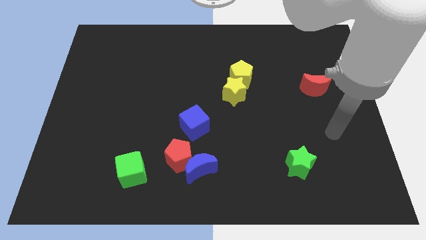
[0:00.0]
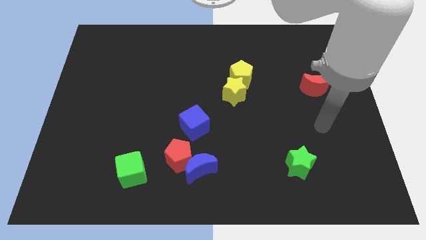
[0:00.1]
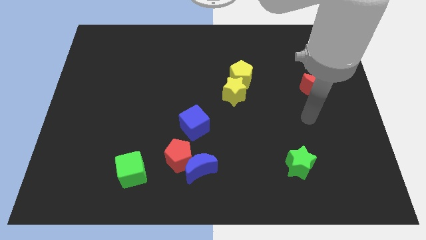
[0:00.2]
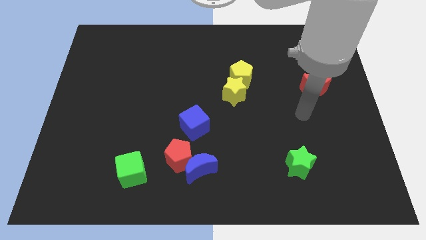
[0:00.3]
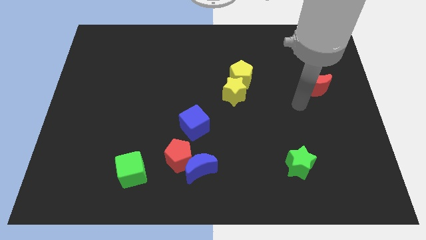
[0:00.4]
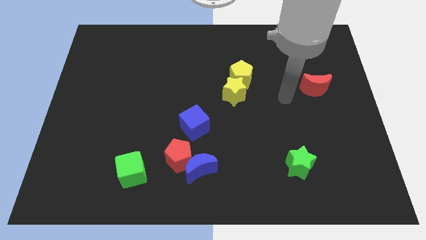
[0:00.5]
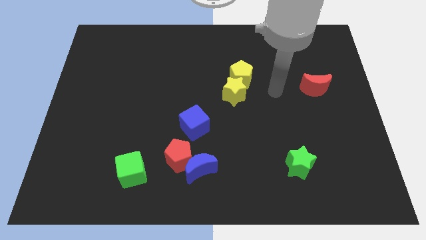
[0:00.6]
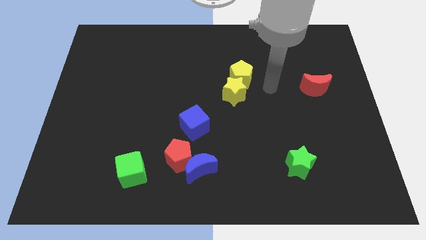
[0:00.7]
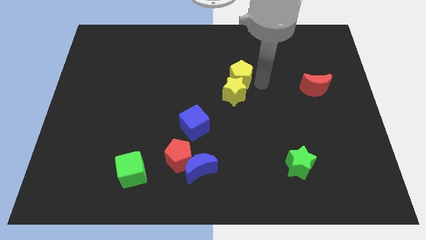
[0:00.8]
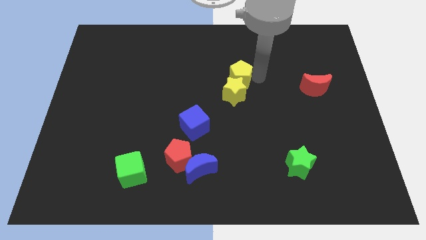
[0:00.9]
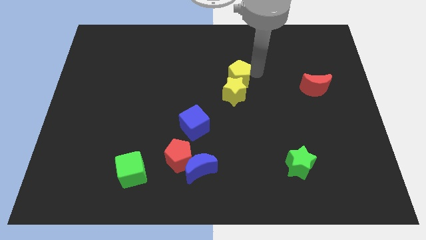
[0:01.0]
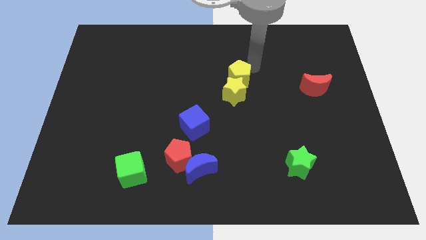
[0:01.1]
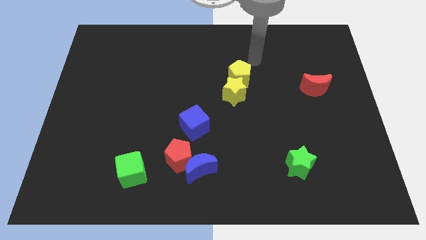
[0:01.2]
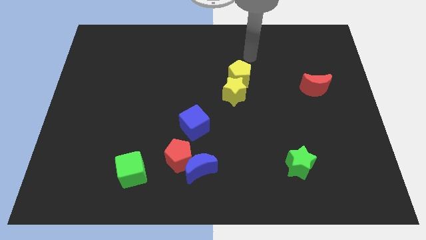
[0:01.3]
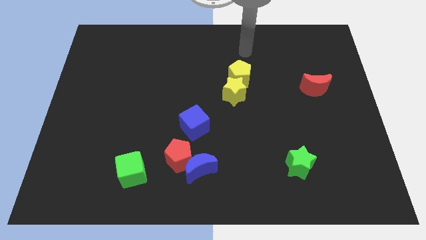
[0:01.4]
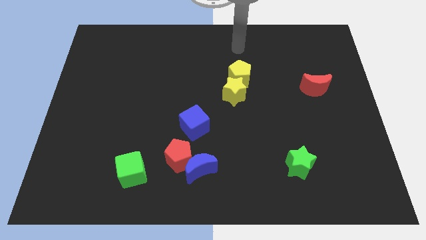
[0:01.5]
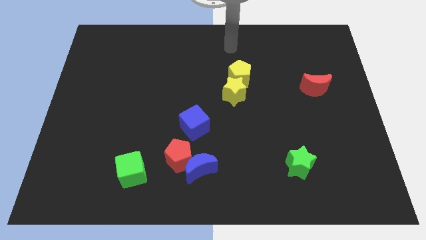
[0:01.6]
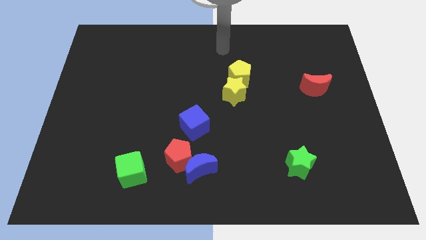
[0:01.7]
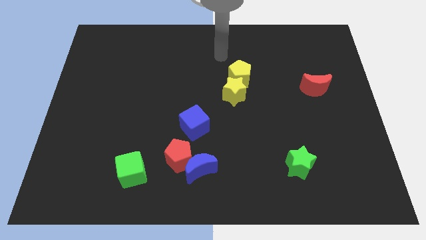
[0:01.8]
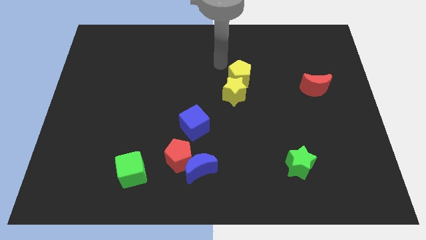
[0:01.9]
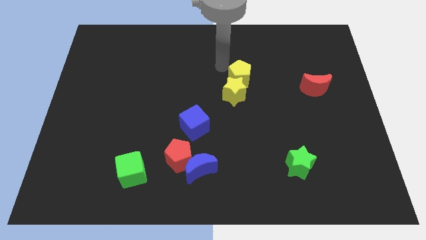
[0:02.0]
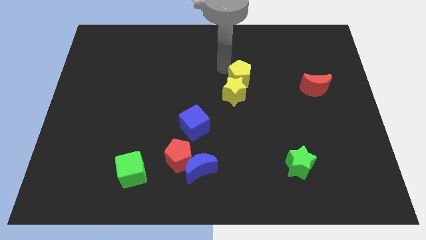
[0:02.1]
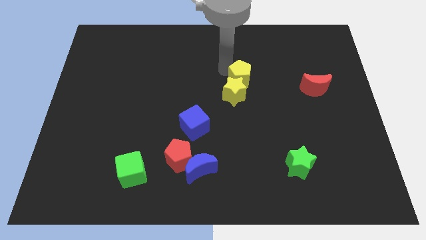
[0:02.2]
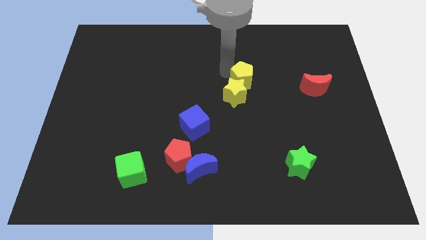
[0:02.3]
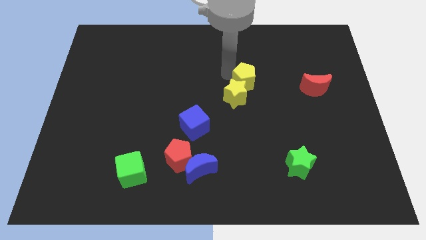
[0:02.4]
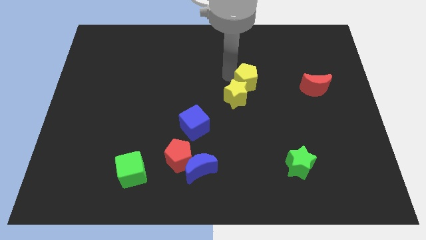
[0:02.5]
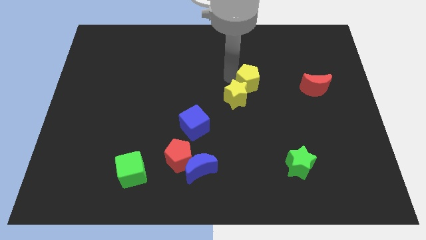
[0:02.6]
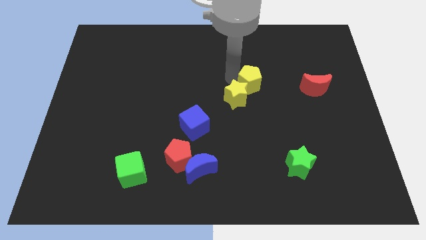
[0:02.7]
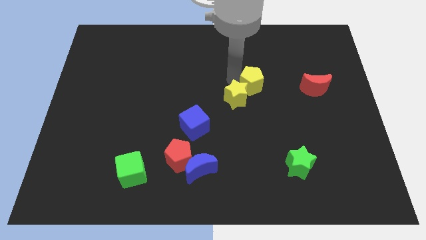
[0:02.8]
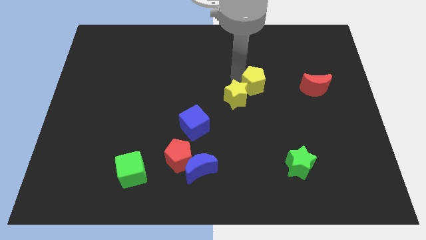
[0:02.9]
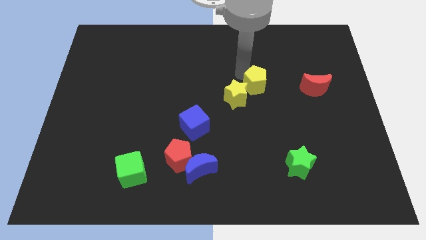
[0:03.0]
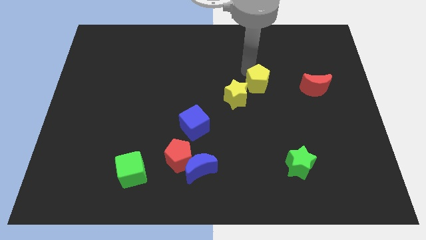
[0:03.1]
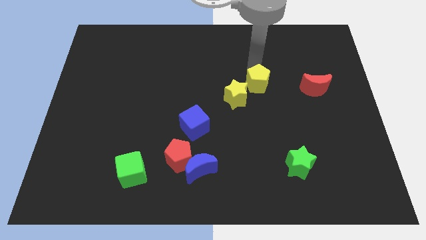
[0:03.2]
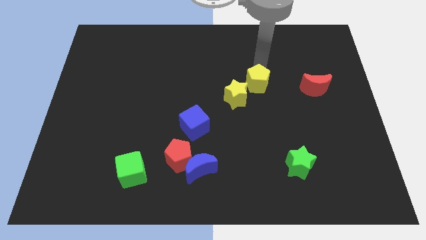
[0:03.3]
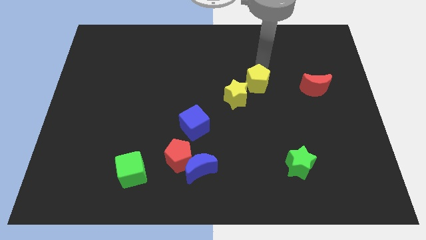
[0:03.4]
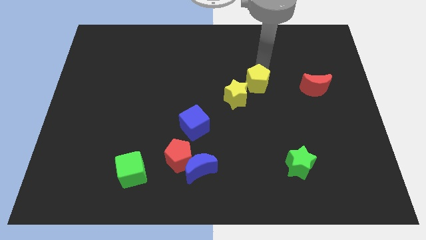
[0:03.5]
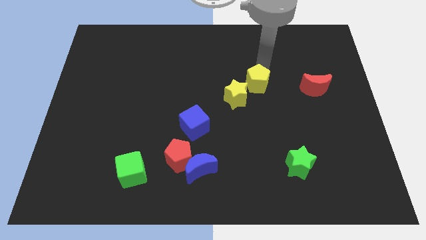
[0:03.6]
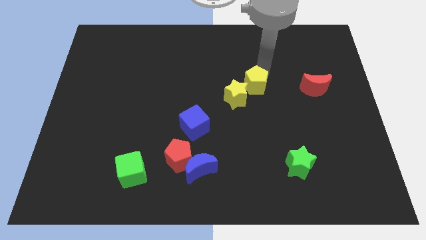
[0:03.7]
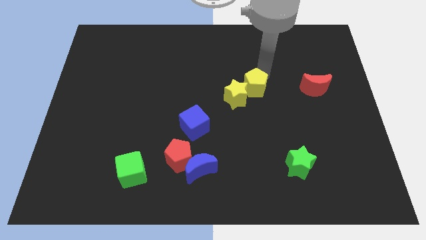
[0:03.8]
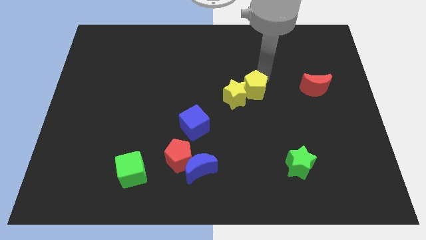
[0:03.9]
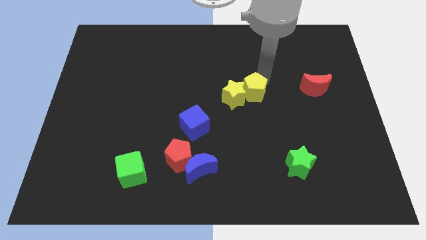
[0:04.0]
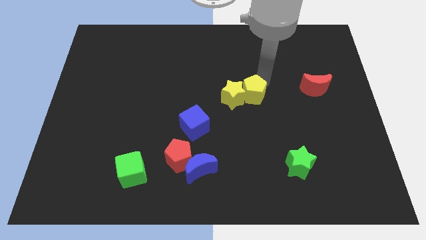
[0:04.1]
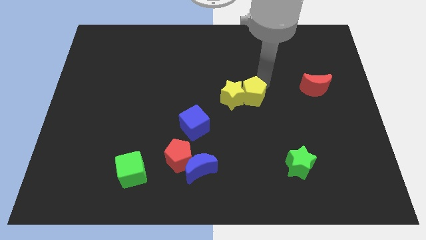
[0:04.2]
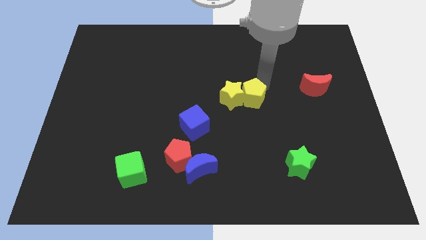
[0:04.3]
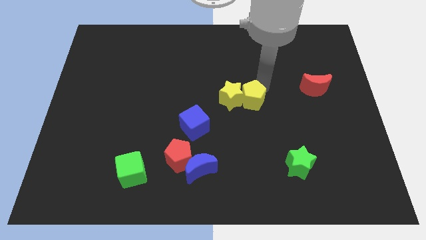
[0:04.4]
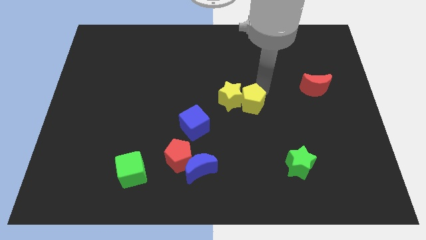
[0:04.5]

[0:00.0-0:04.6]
slide the yellow pentagon downwards a little bit
